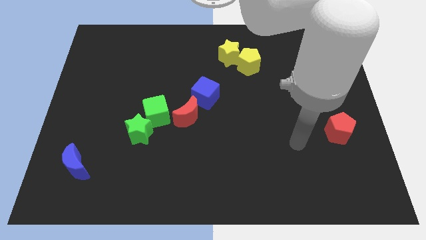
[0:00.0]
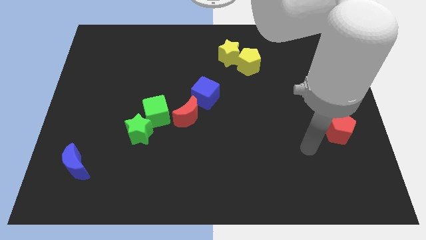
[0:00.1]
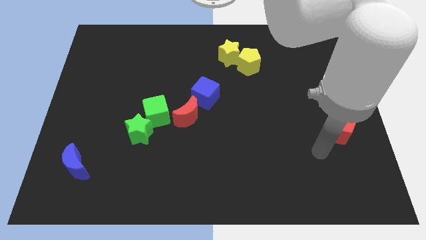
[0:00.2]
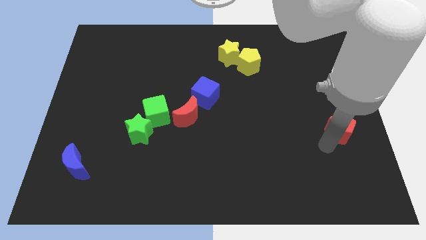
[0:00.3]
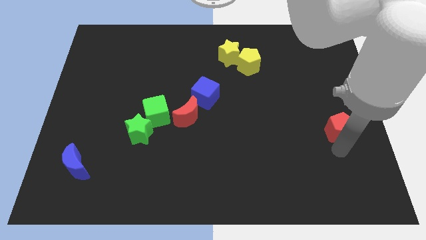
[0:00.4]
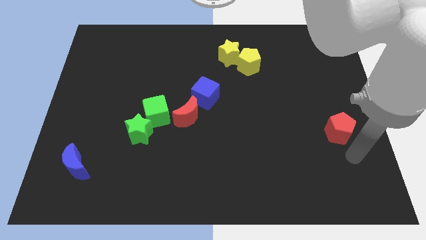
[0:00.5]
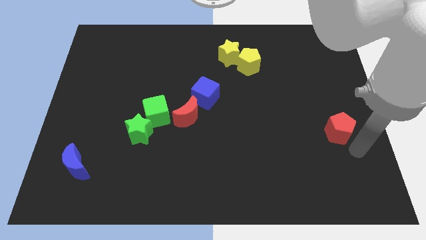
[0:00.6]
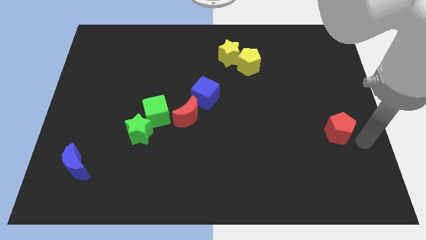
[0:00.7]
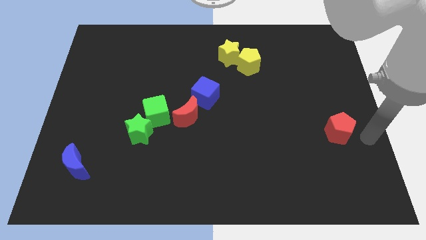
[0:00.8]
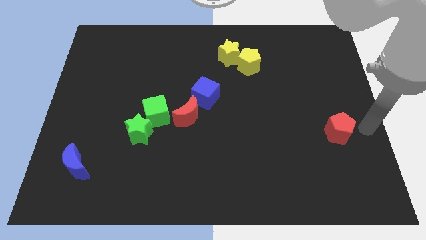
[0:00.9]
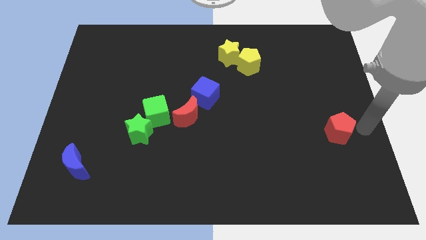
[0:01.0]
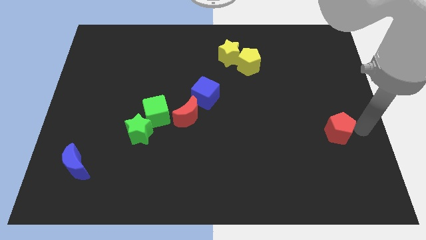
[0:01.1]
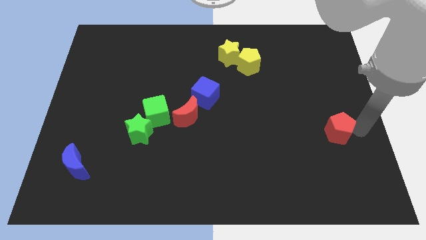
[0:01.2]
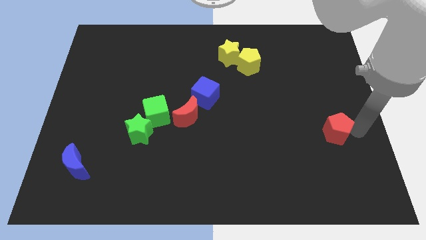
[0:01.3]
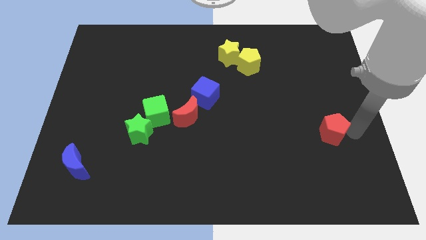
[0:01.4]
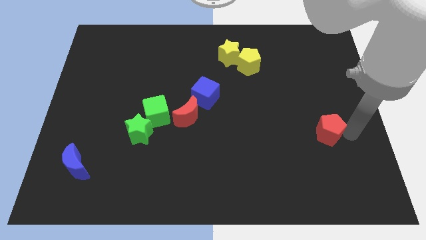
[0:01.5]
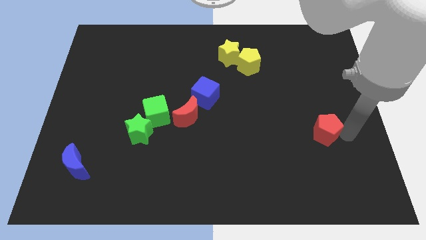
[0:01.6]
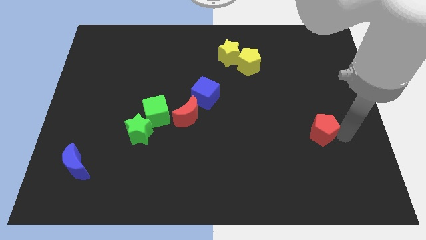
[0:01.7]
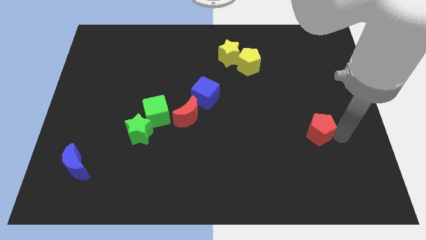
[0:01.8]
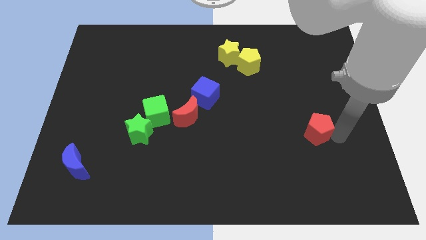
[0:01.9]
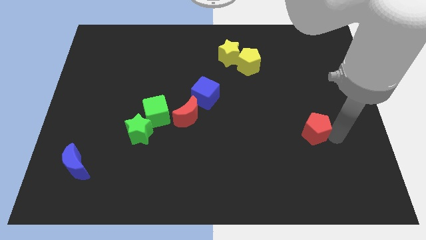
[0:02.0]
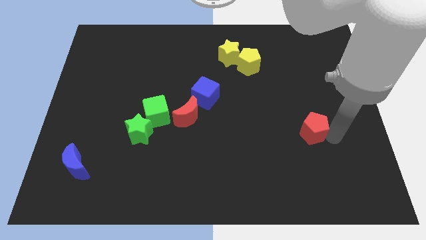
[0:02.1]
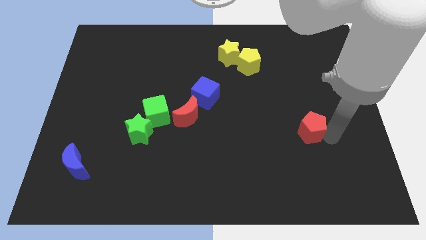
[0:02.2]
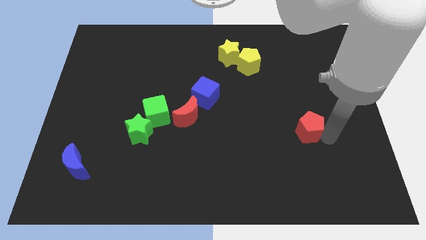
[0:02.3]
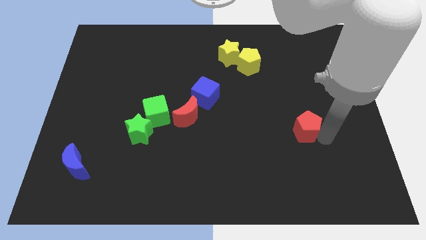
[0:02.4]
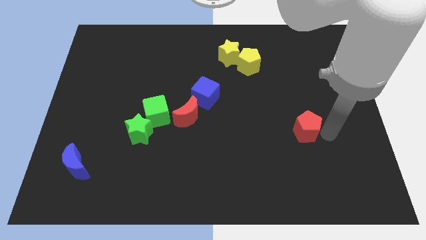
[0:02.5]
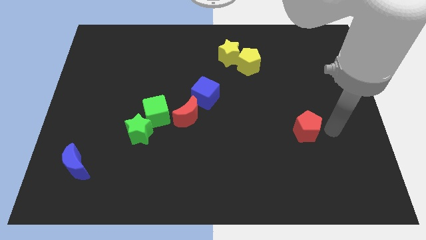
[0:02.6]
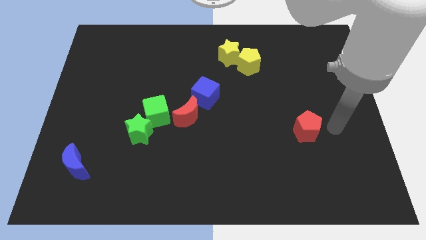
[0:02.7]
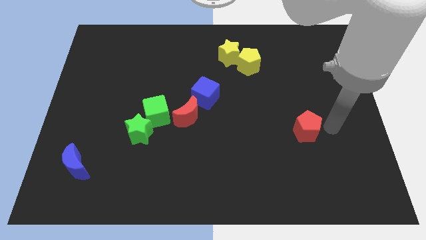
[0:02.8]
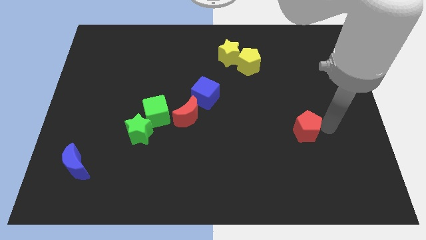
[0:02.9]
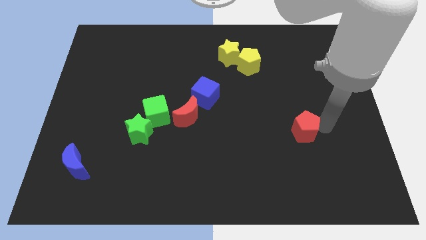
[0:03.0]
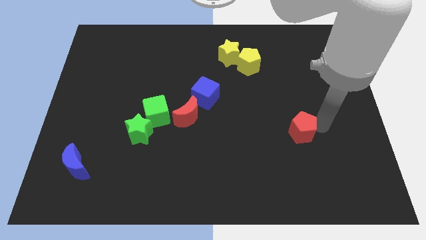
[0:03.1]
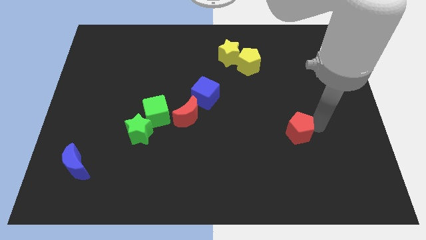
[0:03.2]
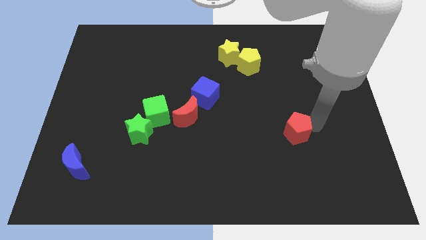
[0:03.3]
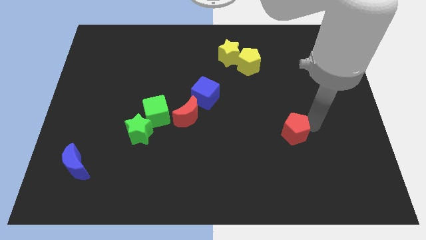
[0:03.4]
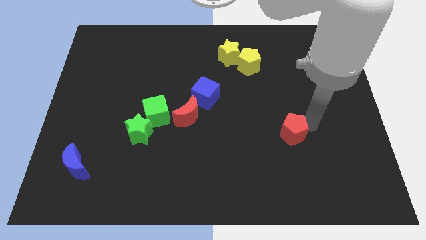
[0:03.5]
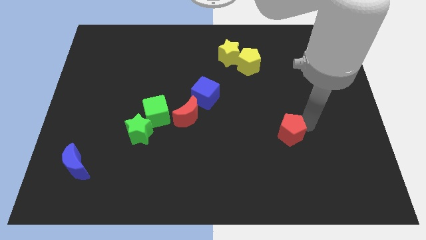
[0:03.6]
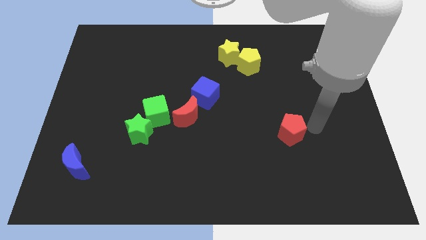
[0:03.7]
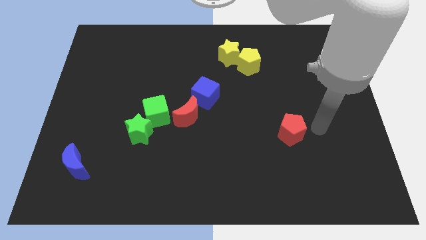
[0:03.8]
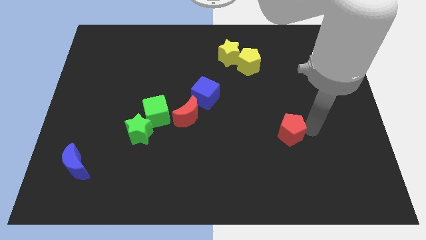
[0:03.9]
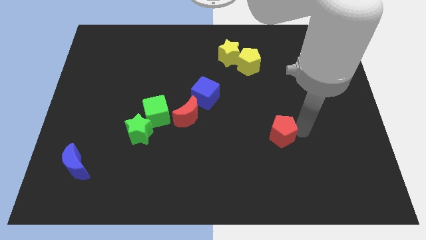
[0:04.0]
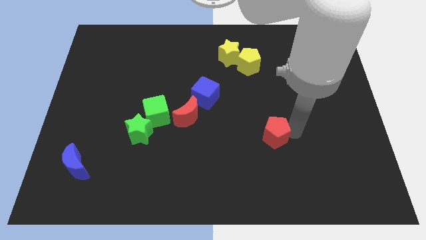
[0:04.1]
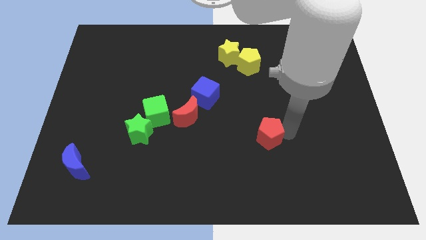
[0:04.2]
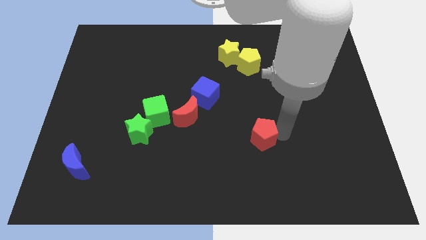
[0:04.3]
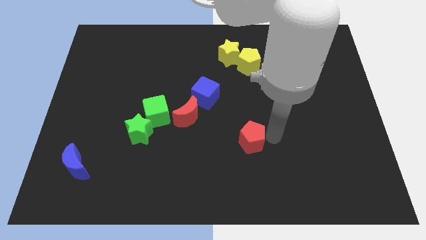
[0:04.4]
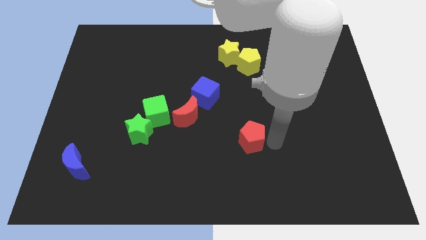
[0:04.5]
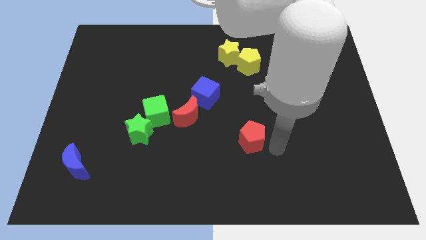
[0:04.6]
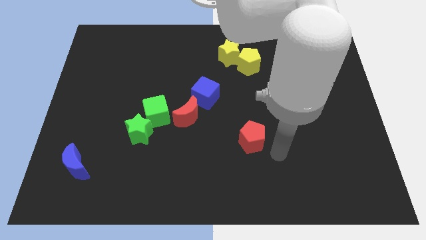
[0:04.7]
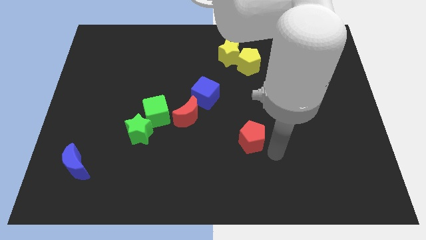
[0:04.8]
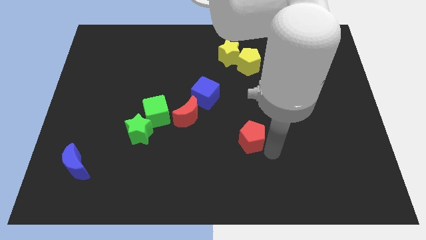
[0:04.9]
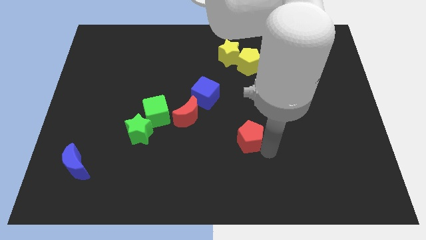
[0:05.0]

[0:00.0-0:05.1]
slide the red pentagon left

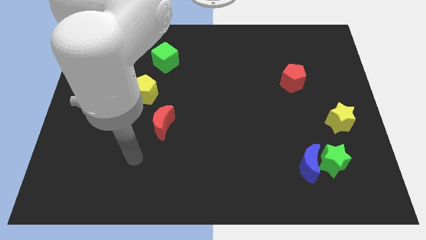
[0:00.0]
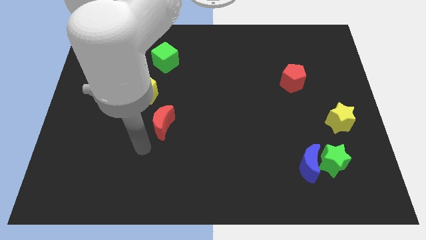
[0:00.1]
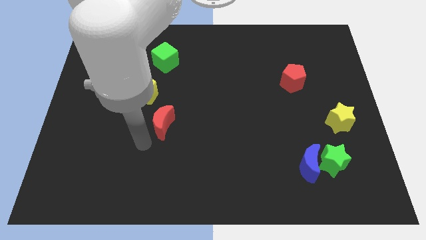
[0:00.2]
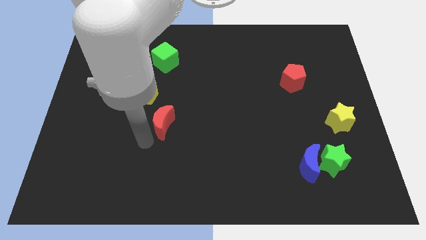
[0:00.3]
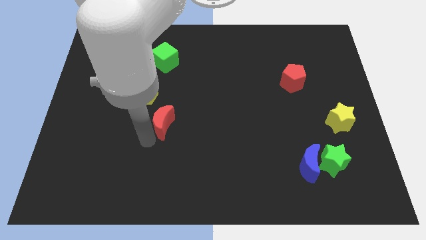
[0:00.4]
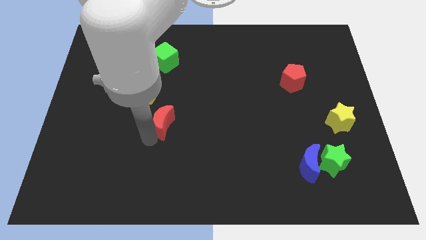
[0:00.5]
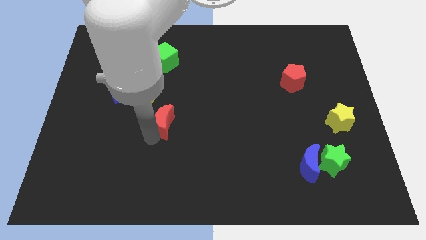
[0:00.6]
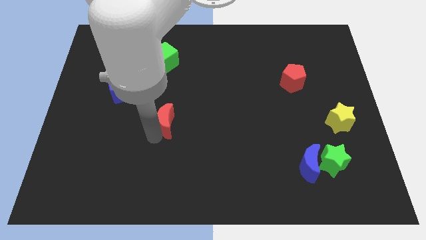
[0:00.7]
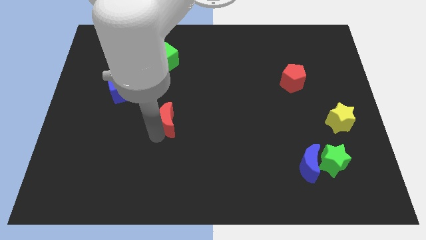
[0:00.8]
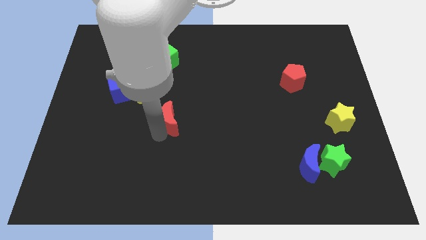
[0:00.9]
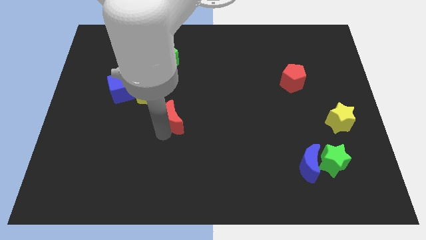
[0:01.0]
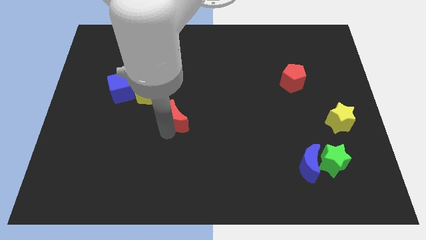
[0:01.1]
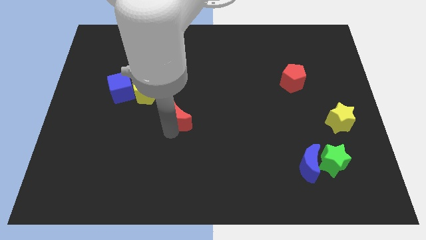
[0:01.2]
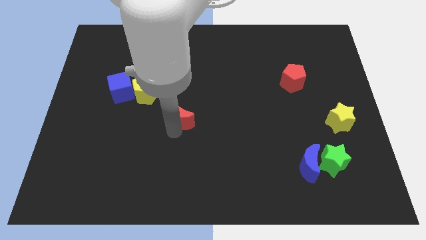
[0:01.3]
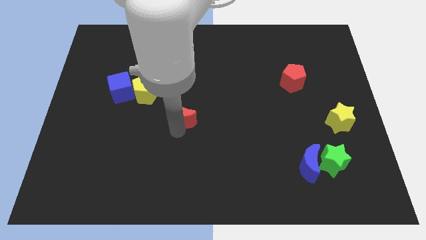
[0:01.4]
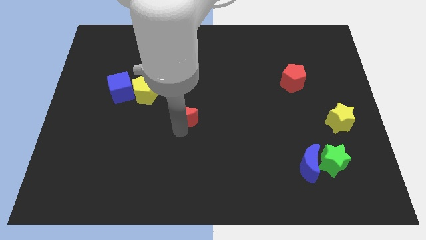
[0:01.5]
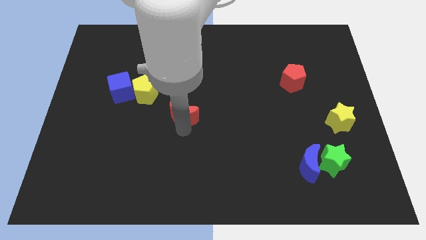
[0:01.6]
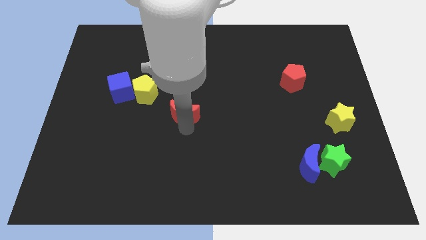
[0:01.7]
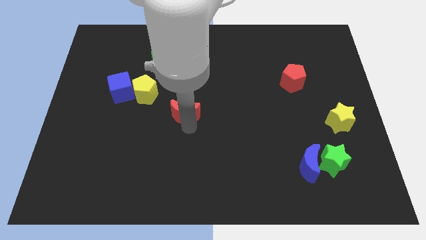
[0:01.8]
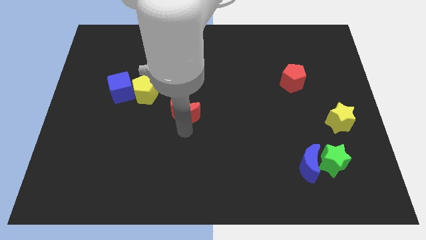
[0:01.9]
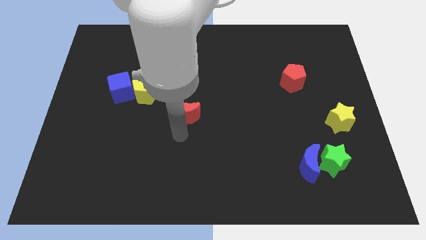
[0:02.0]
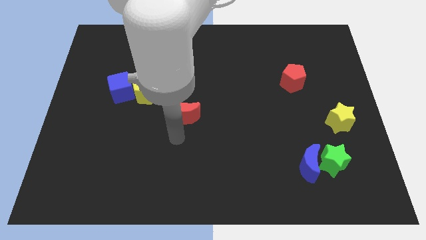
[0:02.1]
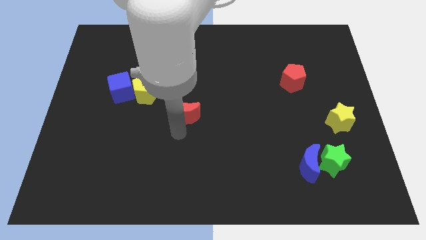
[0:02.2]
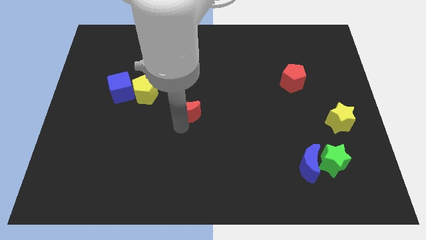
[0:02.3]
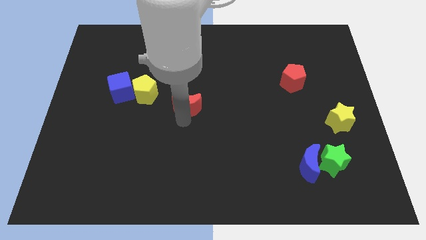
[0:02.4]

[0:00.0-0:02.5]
slightly move the red moon upwards and then right

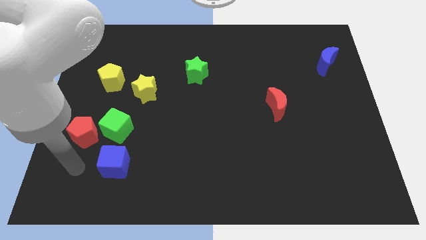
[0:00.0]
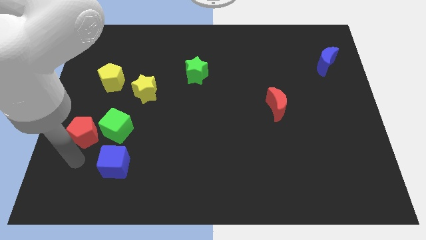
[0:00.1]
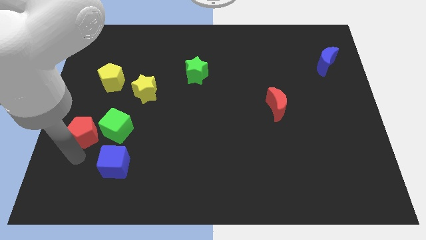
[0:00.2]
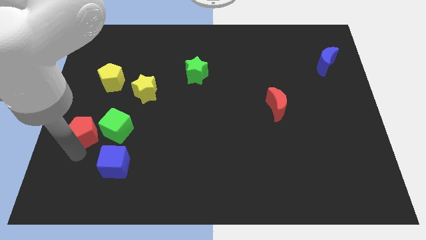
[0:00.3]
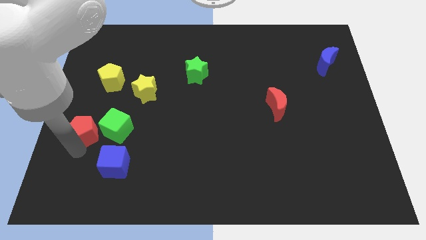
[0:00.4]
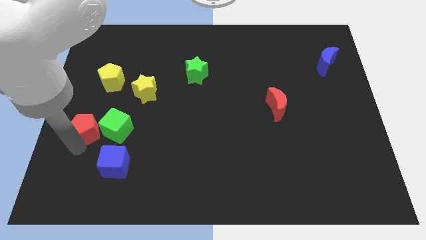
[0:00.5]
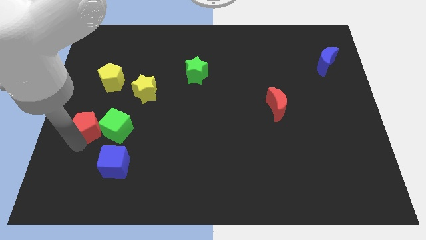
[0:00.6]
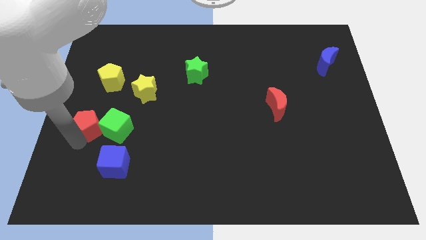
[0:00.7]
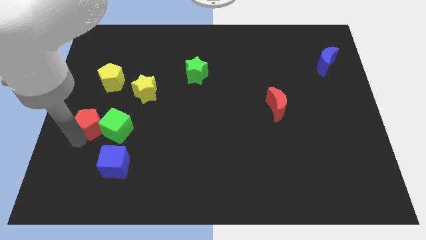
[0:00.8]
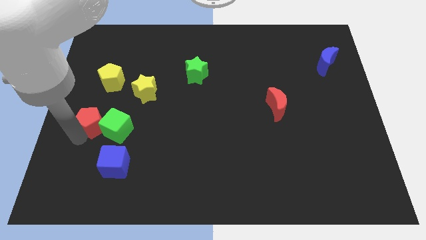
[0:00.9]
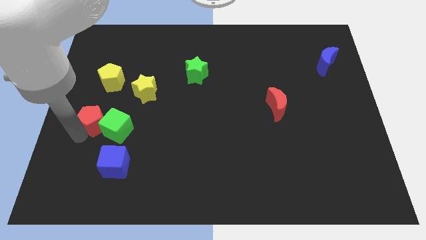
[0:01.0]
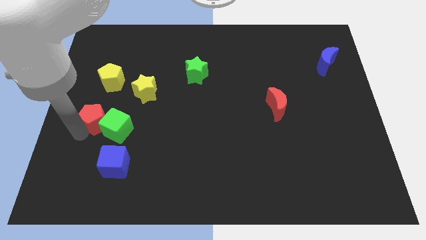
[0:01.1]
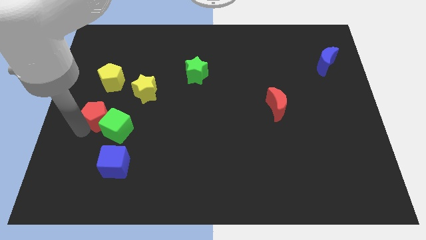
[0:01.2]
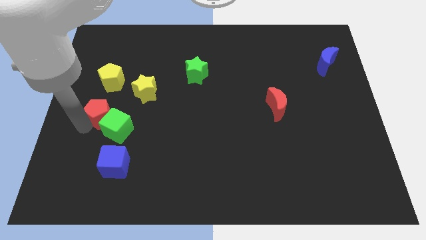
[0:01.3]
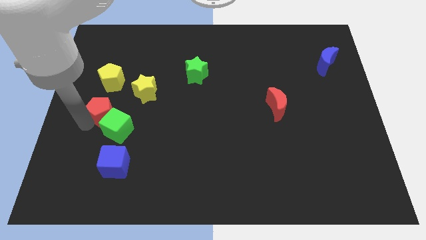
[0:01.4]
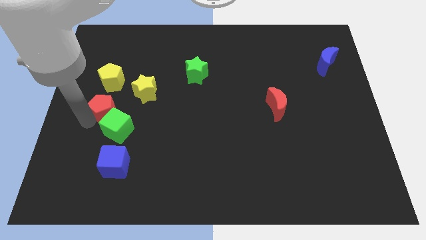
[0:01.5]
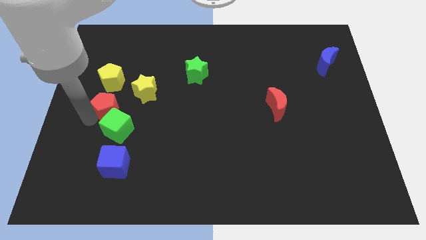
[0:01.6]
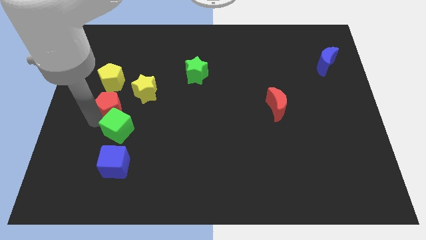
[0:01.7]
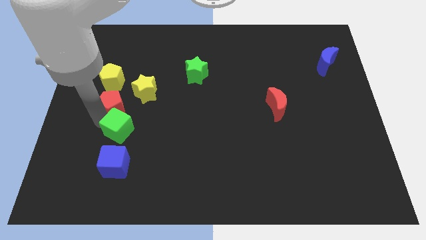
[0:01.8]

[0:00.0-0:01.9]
slide the red pentagon up a bit
